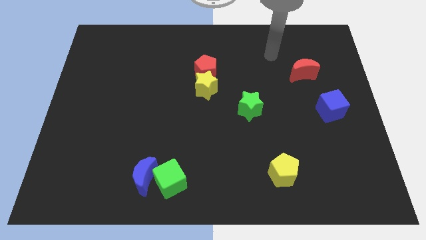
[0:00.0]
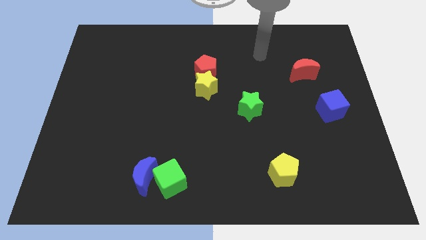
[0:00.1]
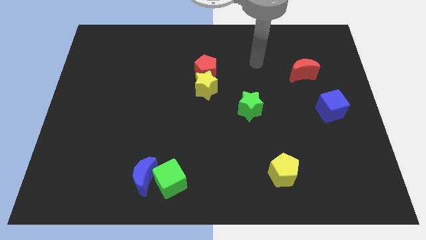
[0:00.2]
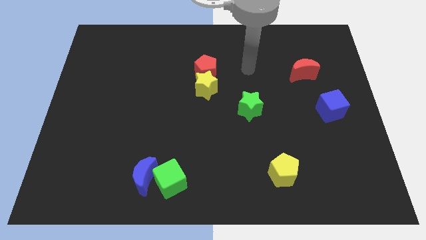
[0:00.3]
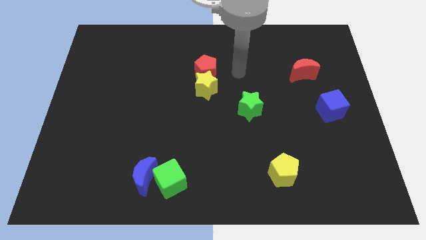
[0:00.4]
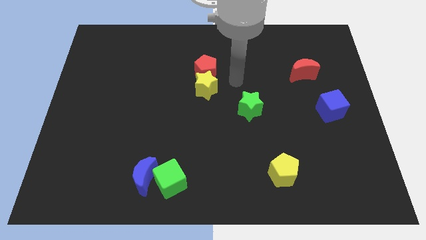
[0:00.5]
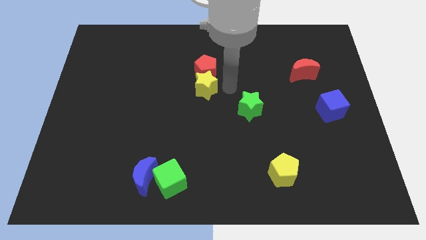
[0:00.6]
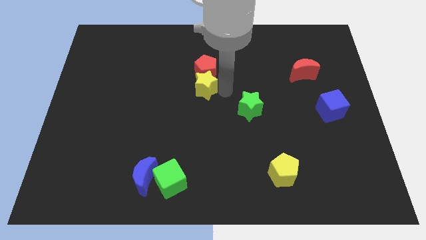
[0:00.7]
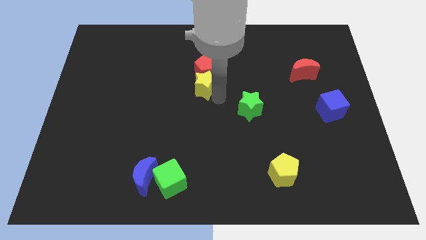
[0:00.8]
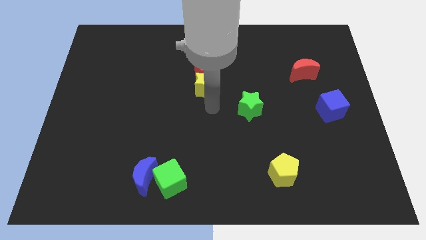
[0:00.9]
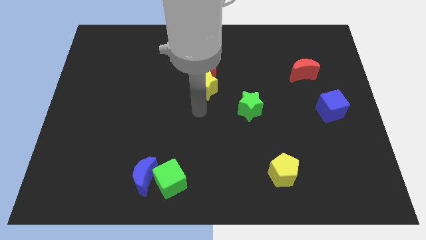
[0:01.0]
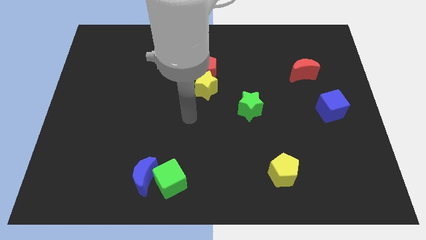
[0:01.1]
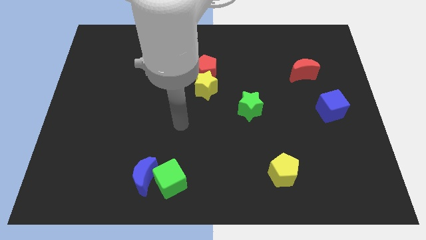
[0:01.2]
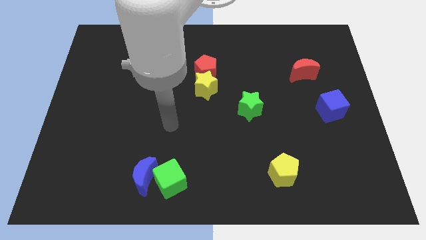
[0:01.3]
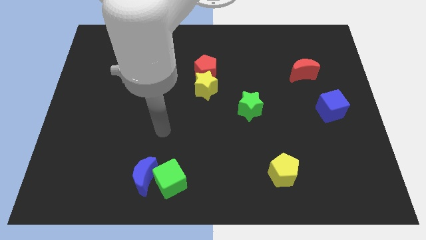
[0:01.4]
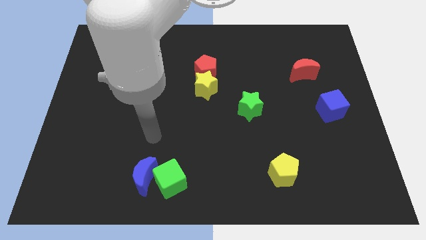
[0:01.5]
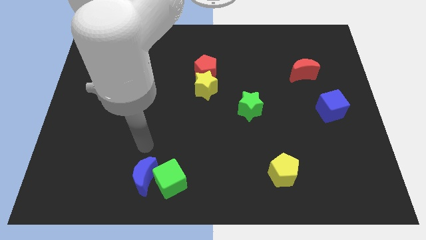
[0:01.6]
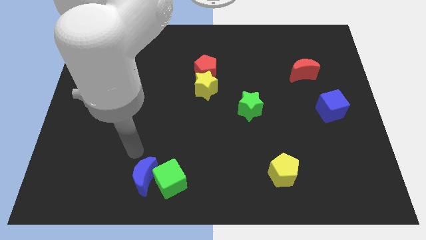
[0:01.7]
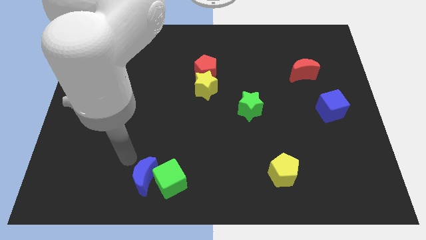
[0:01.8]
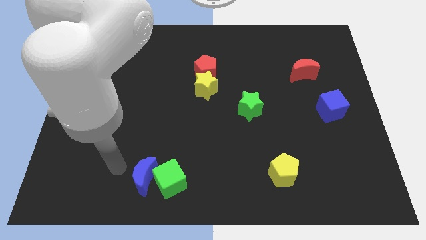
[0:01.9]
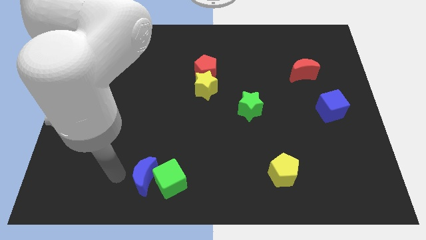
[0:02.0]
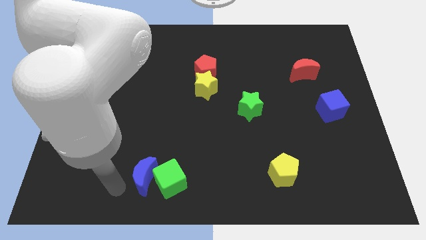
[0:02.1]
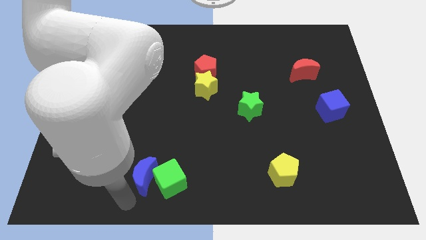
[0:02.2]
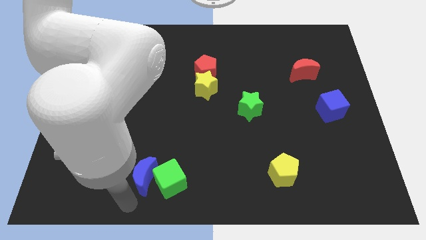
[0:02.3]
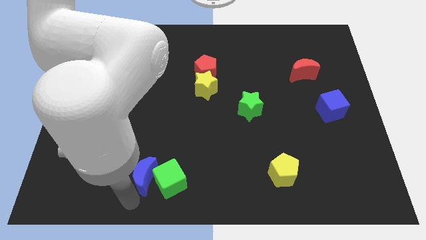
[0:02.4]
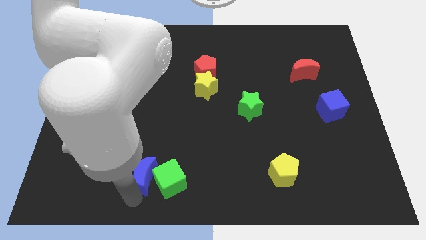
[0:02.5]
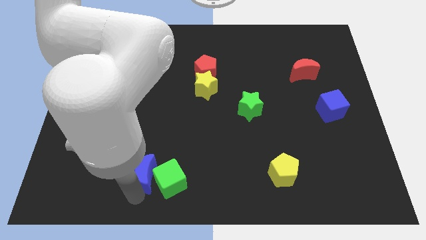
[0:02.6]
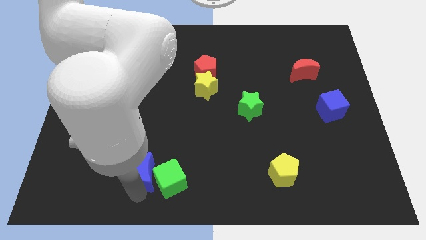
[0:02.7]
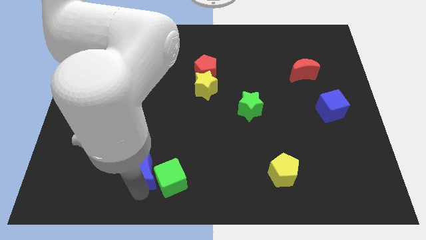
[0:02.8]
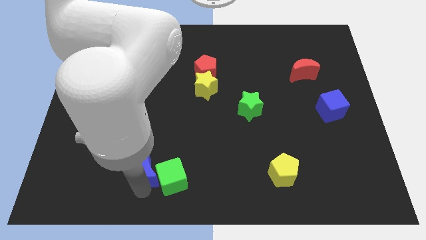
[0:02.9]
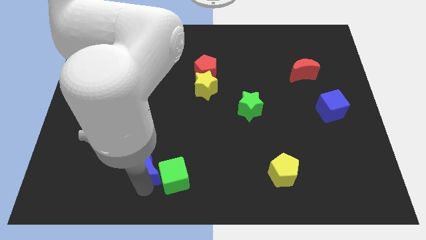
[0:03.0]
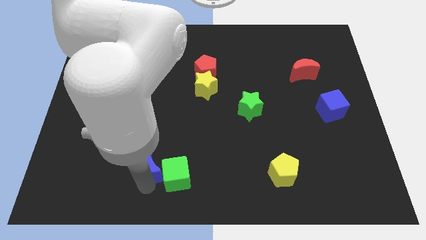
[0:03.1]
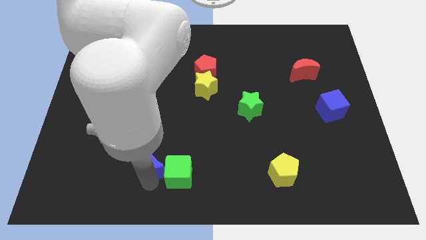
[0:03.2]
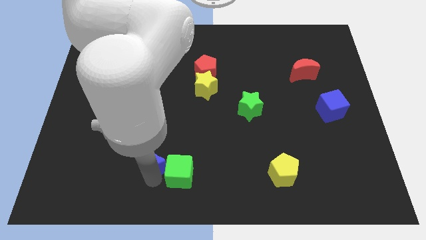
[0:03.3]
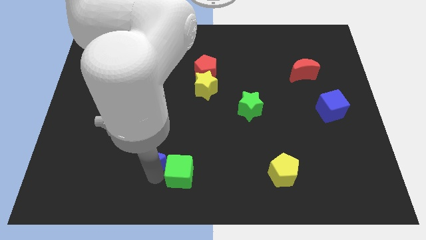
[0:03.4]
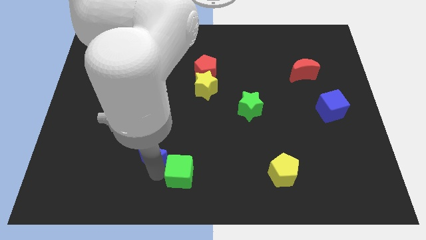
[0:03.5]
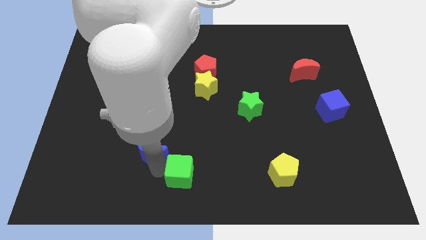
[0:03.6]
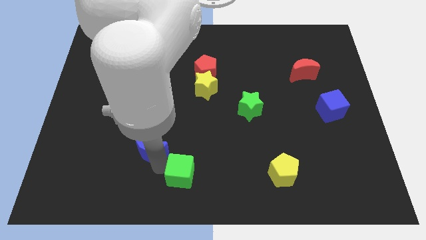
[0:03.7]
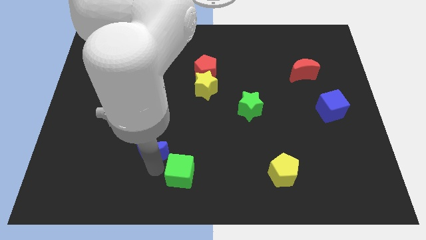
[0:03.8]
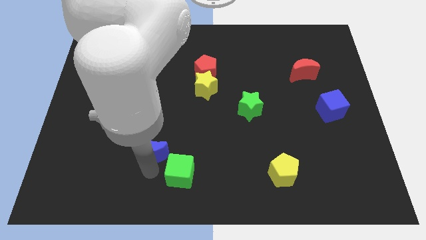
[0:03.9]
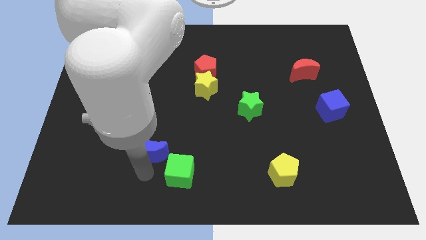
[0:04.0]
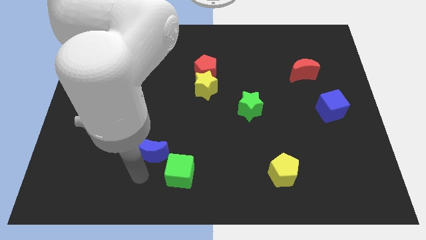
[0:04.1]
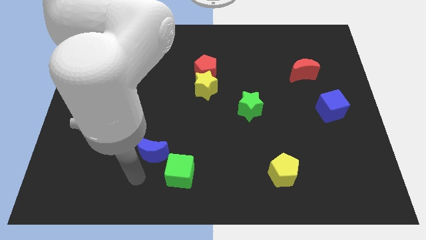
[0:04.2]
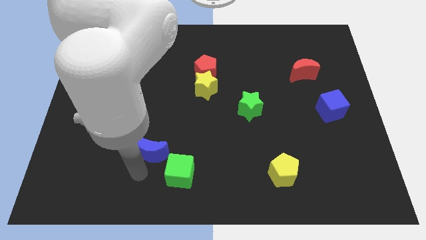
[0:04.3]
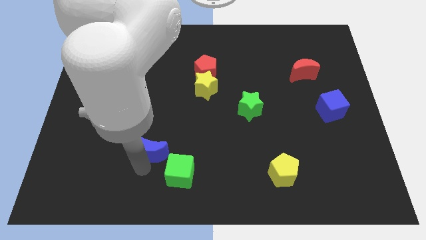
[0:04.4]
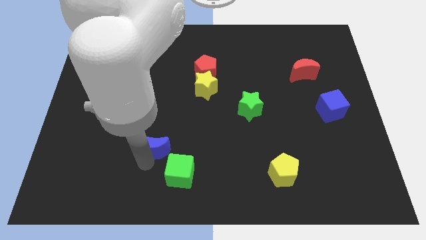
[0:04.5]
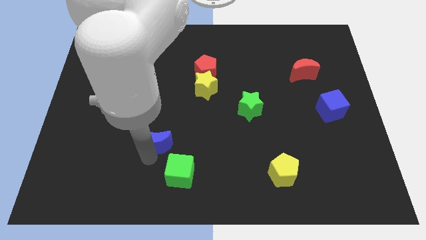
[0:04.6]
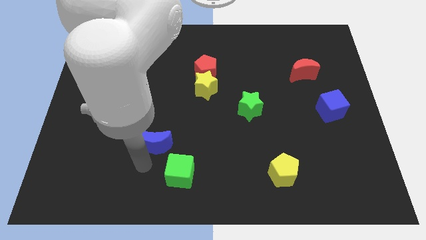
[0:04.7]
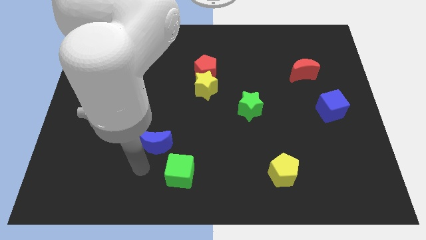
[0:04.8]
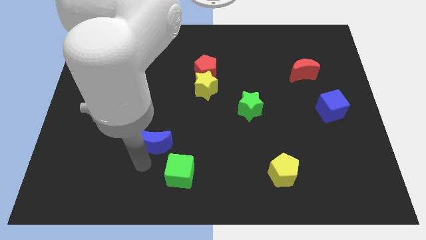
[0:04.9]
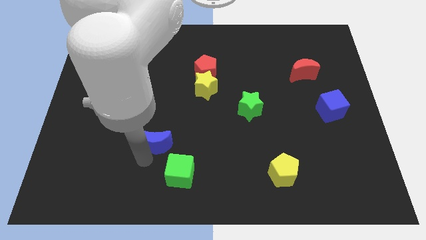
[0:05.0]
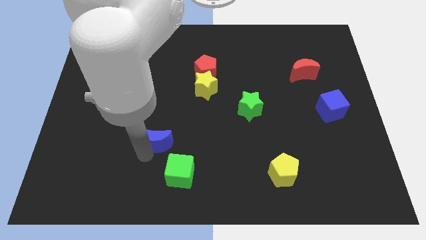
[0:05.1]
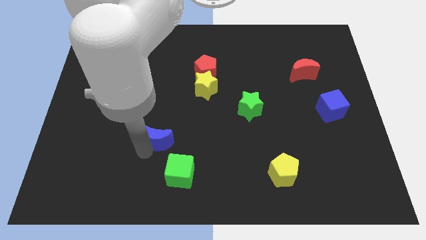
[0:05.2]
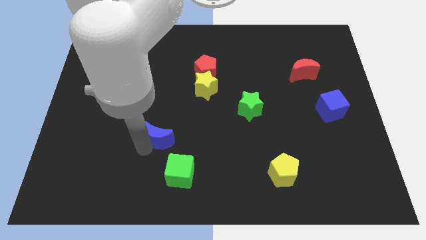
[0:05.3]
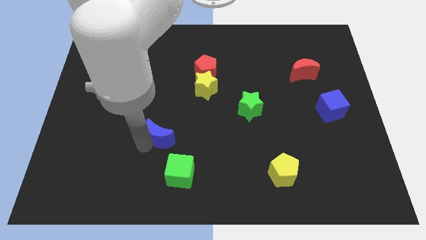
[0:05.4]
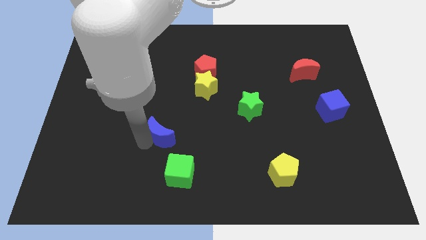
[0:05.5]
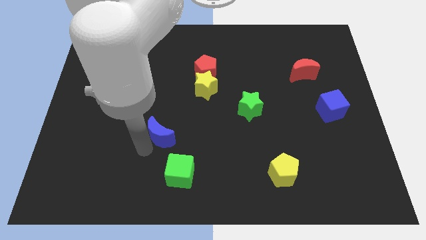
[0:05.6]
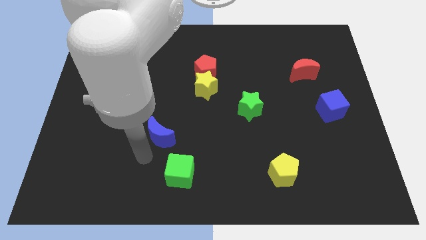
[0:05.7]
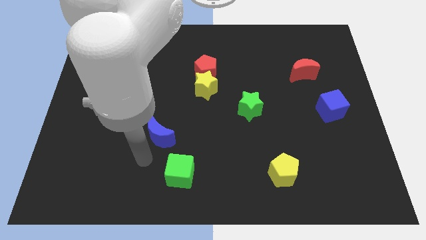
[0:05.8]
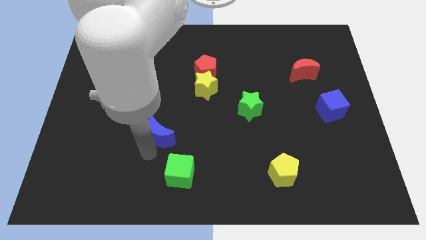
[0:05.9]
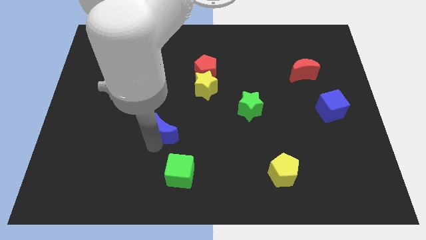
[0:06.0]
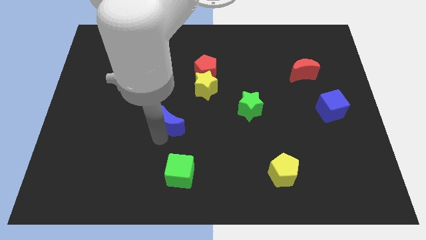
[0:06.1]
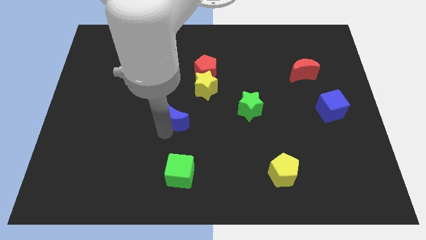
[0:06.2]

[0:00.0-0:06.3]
push the blue moon to the bottom left side of the yellow star

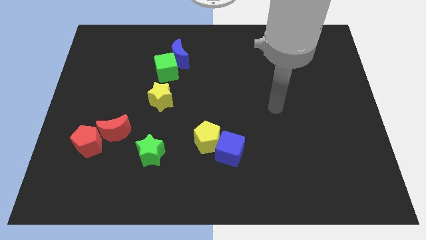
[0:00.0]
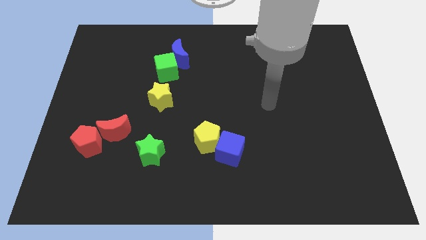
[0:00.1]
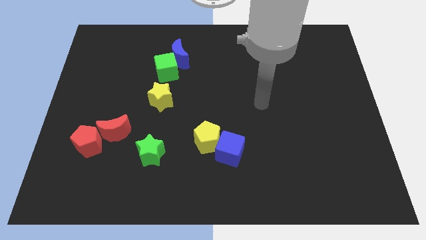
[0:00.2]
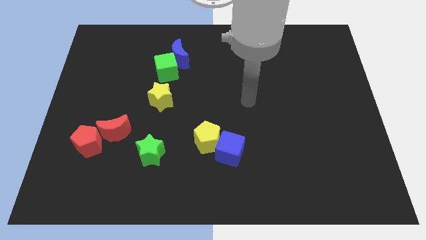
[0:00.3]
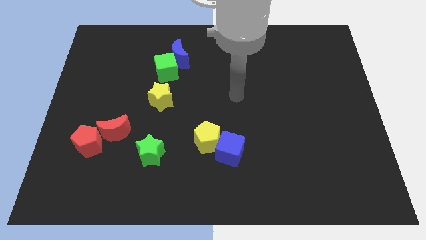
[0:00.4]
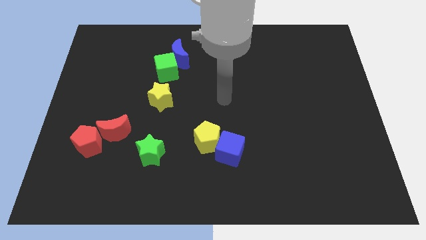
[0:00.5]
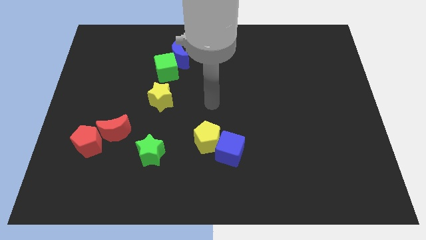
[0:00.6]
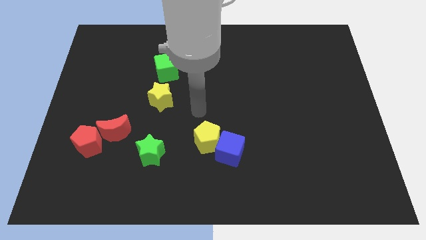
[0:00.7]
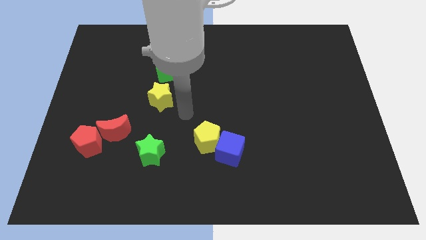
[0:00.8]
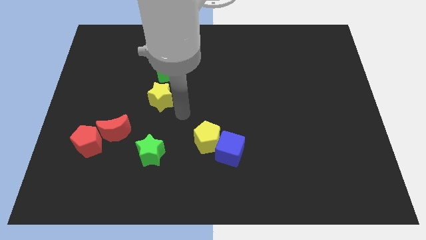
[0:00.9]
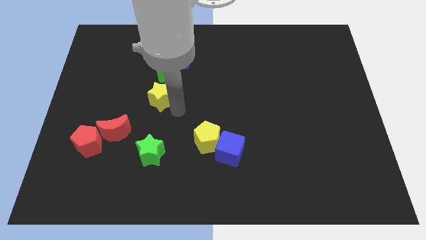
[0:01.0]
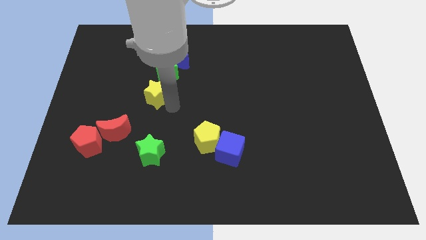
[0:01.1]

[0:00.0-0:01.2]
put the yellow star diagonally down and to the left of the green cube
